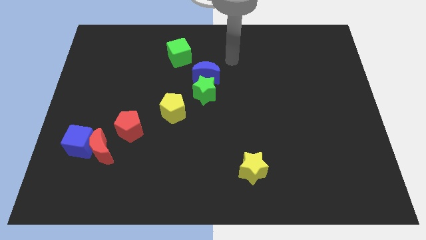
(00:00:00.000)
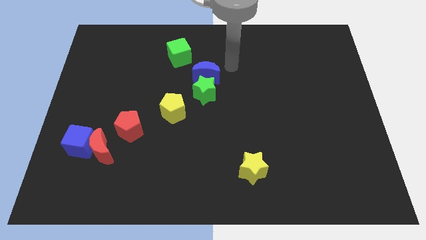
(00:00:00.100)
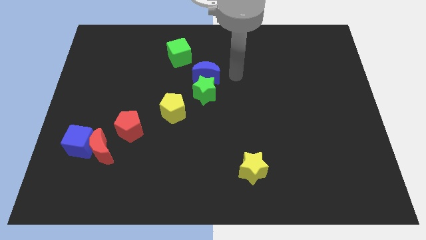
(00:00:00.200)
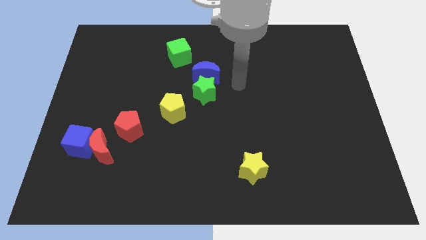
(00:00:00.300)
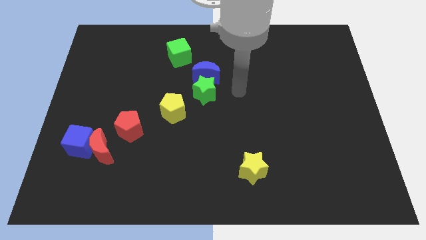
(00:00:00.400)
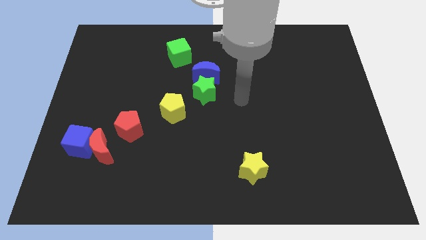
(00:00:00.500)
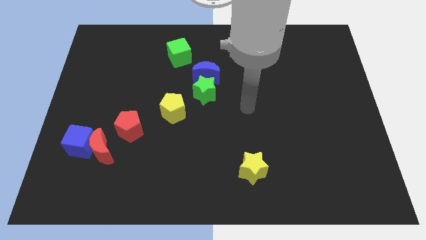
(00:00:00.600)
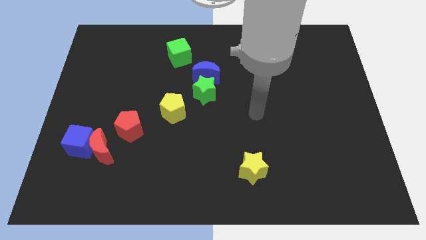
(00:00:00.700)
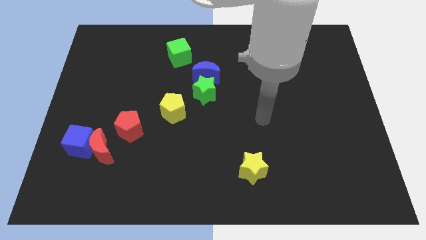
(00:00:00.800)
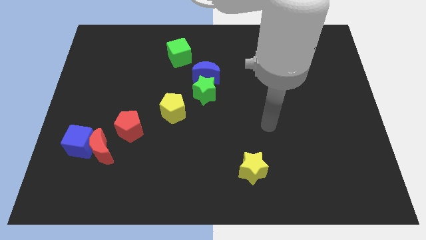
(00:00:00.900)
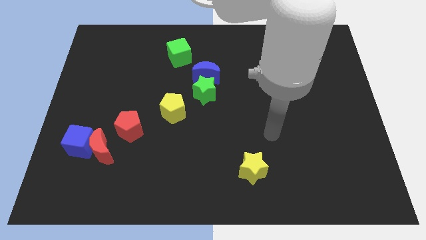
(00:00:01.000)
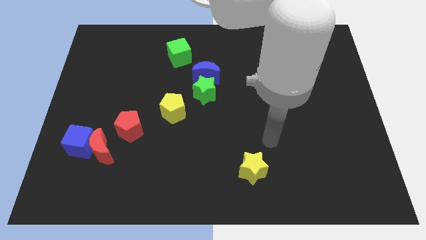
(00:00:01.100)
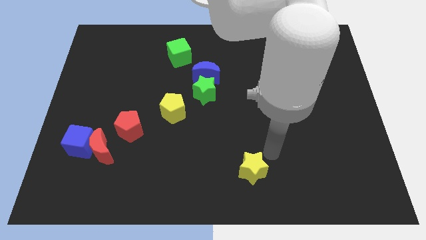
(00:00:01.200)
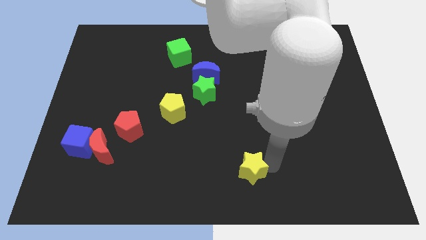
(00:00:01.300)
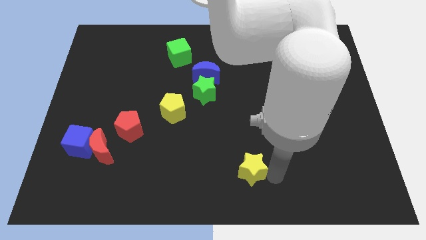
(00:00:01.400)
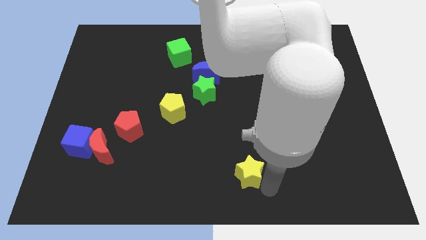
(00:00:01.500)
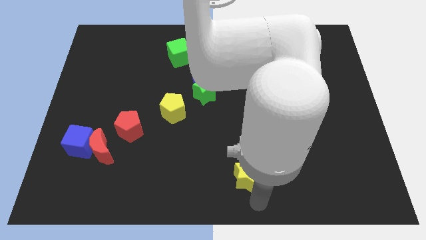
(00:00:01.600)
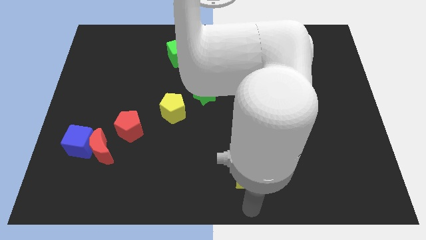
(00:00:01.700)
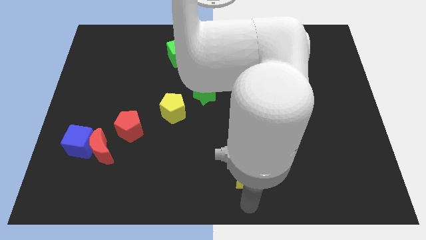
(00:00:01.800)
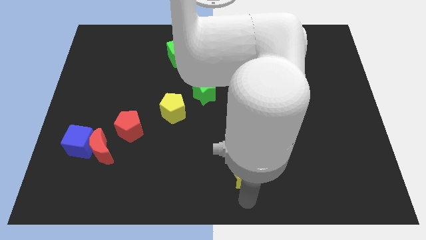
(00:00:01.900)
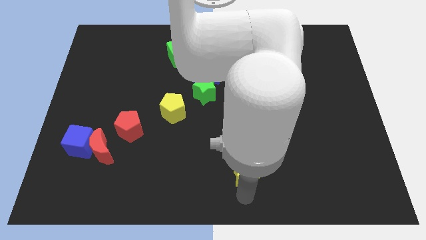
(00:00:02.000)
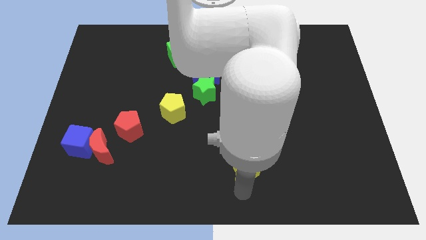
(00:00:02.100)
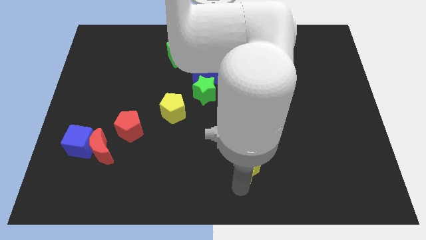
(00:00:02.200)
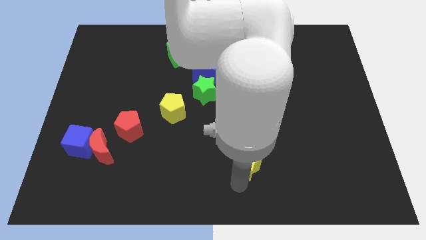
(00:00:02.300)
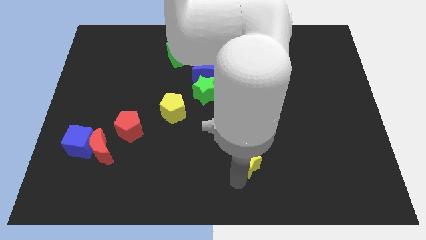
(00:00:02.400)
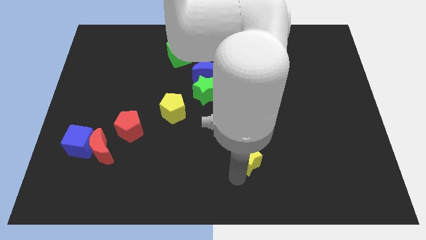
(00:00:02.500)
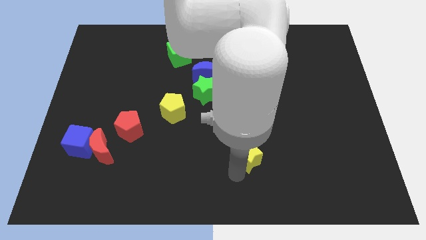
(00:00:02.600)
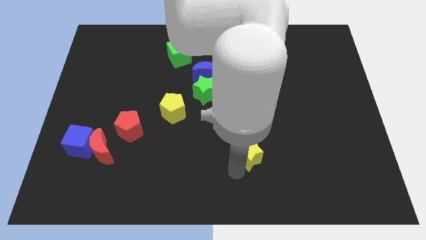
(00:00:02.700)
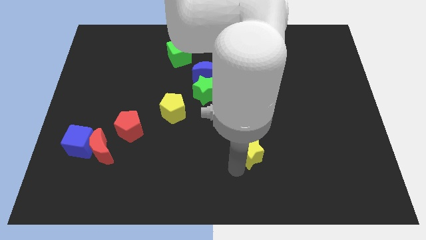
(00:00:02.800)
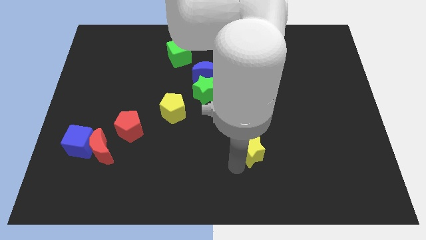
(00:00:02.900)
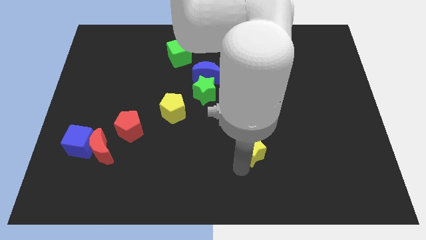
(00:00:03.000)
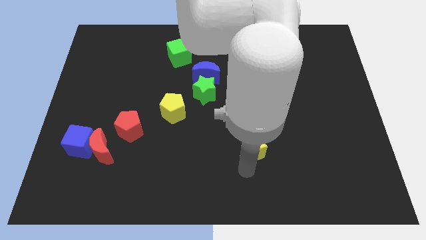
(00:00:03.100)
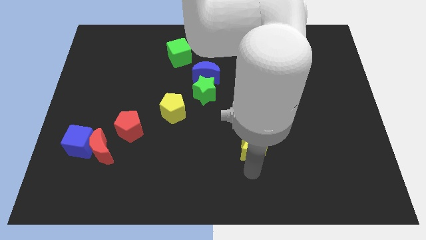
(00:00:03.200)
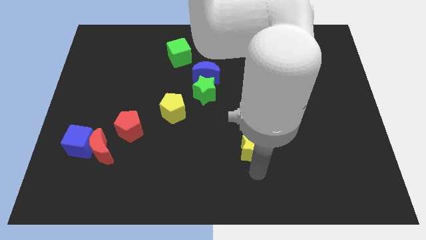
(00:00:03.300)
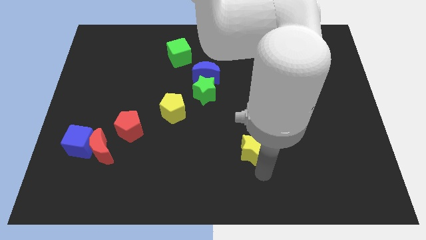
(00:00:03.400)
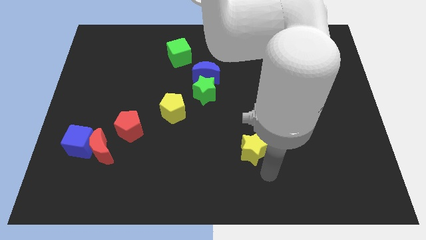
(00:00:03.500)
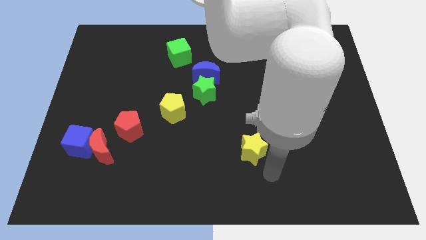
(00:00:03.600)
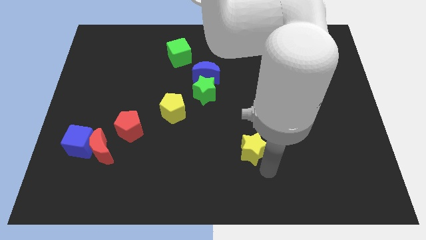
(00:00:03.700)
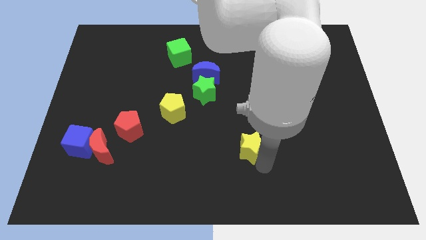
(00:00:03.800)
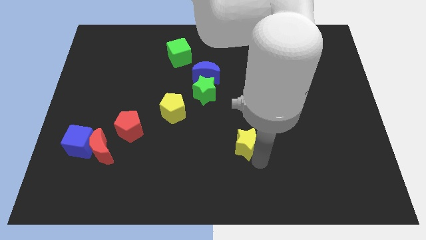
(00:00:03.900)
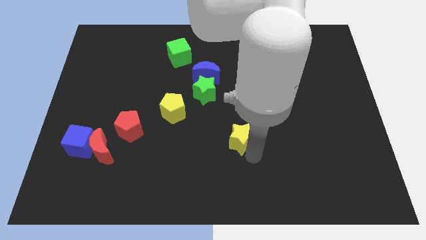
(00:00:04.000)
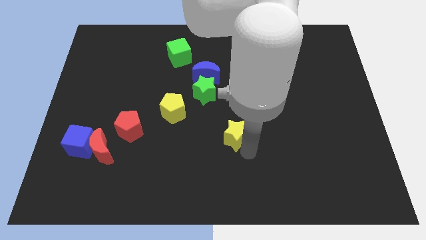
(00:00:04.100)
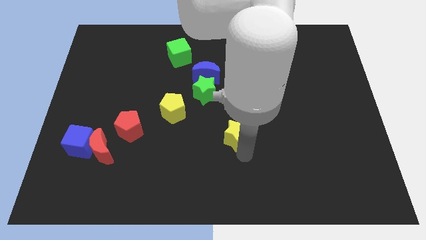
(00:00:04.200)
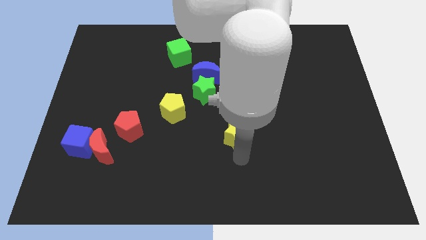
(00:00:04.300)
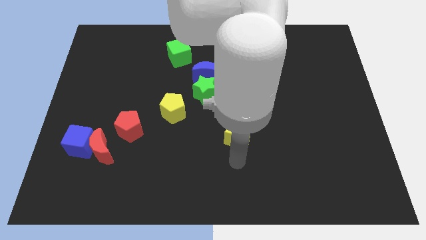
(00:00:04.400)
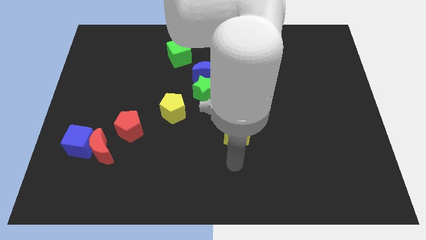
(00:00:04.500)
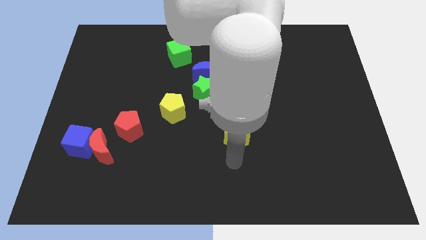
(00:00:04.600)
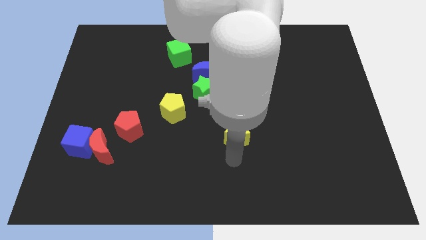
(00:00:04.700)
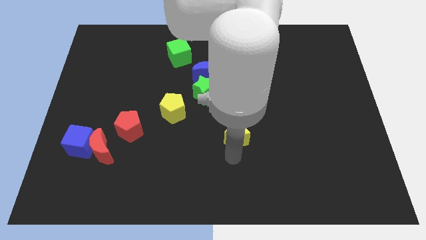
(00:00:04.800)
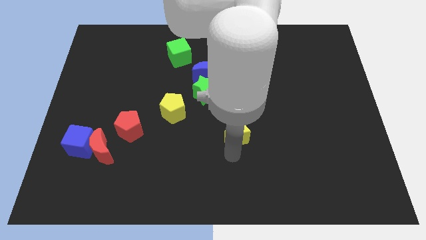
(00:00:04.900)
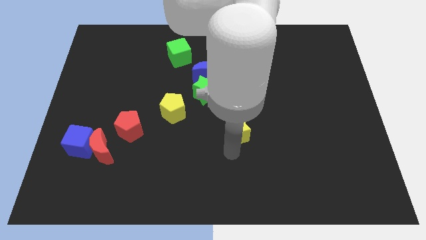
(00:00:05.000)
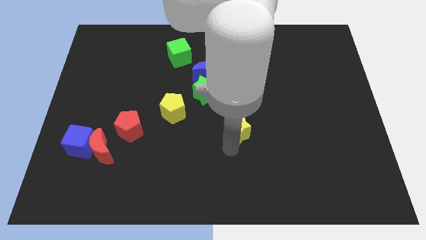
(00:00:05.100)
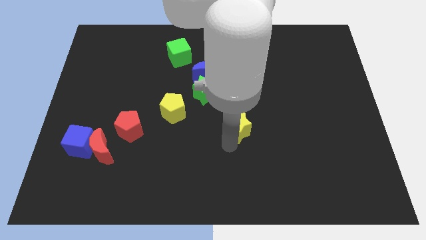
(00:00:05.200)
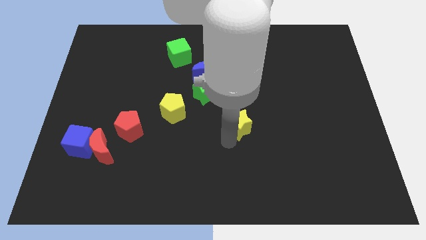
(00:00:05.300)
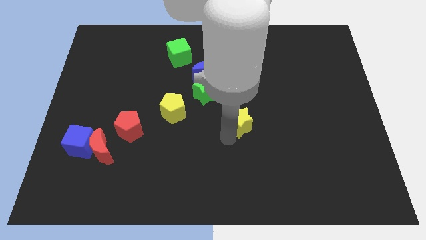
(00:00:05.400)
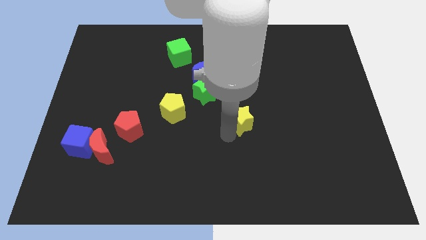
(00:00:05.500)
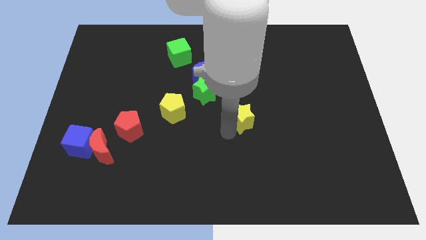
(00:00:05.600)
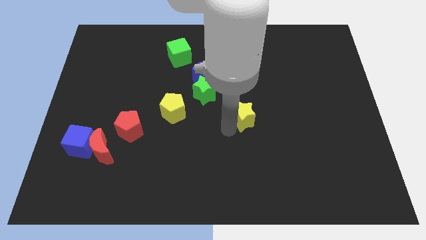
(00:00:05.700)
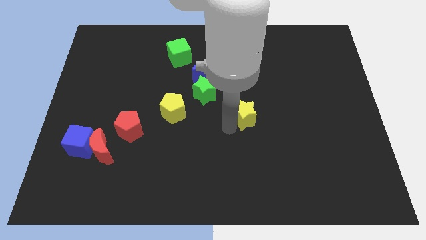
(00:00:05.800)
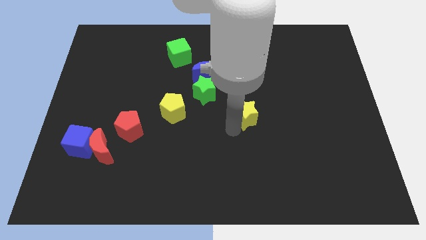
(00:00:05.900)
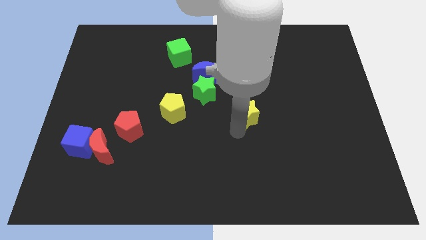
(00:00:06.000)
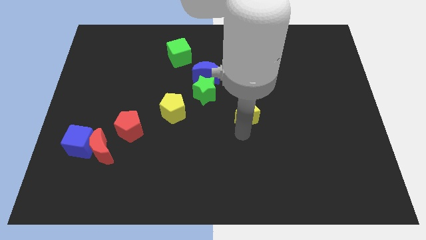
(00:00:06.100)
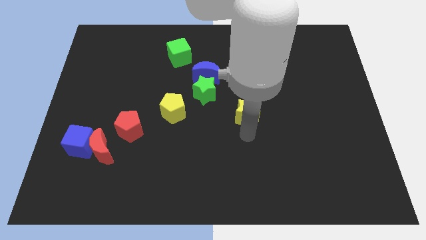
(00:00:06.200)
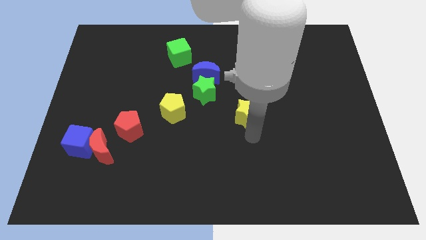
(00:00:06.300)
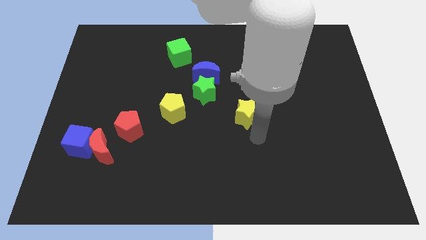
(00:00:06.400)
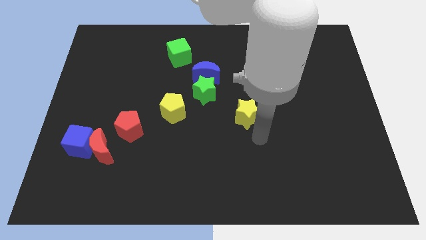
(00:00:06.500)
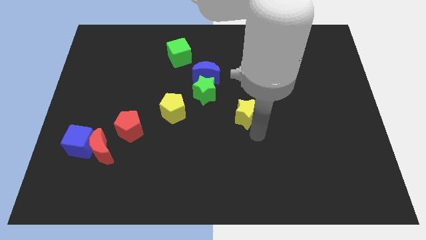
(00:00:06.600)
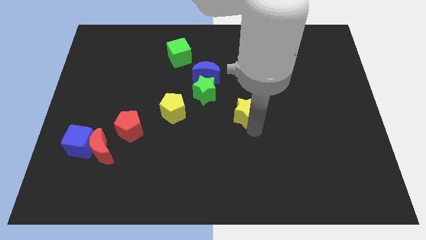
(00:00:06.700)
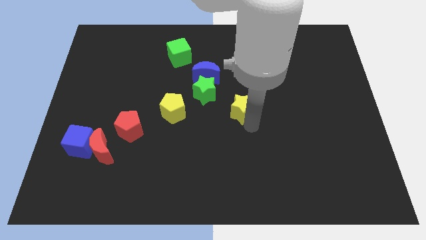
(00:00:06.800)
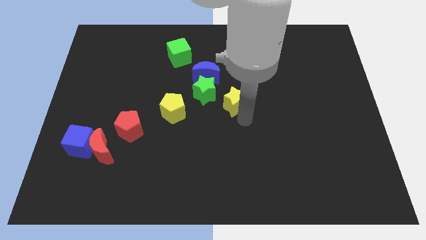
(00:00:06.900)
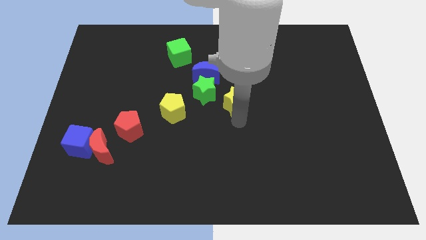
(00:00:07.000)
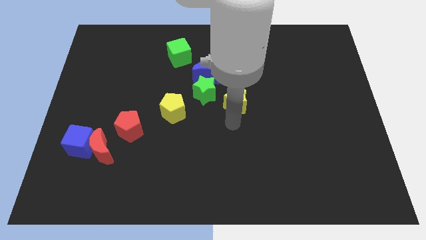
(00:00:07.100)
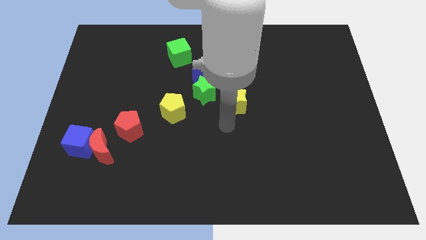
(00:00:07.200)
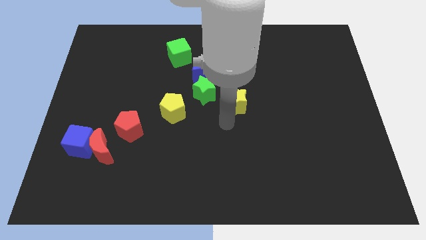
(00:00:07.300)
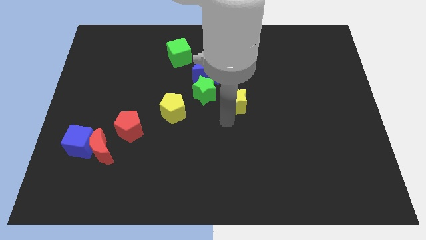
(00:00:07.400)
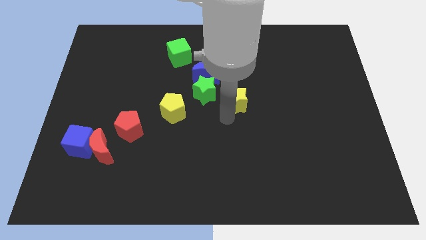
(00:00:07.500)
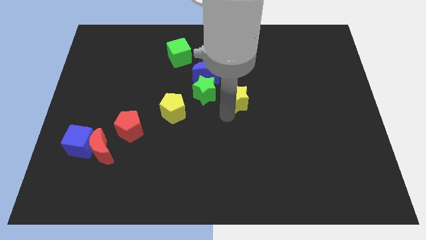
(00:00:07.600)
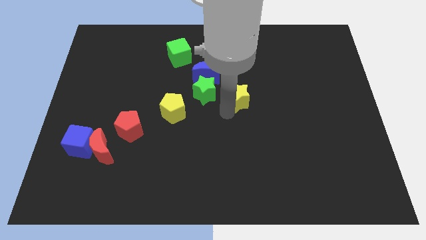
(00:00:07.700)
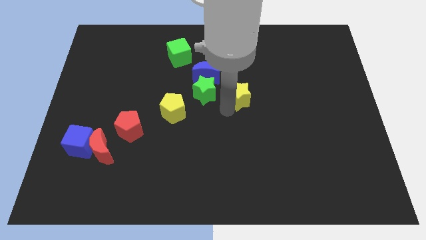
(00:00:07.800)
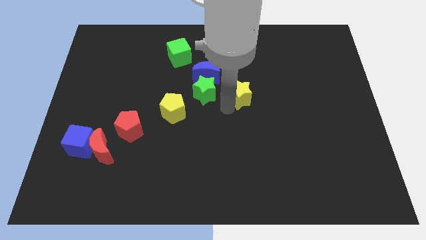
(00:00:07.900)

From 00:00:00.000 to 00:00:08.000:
move the yellow star upwards
